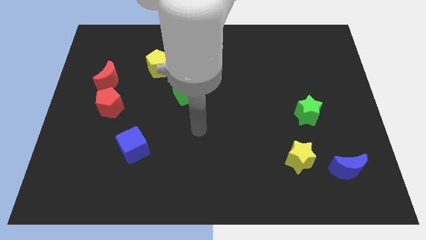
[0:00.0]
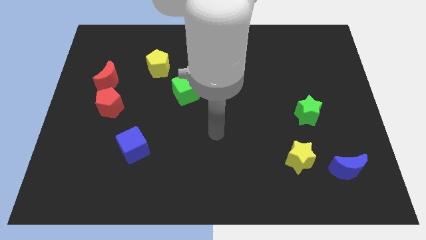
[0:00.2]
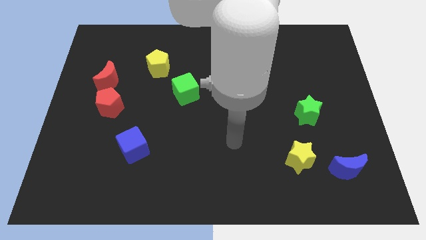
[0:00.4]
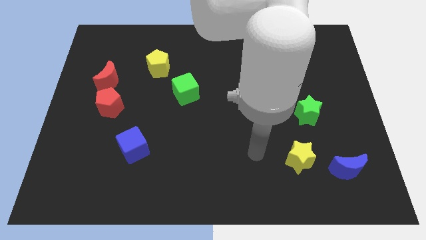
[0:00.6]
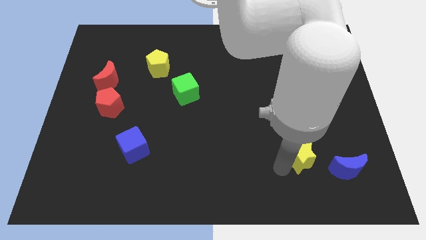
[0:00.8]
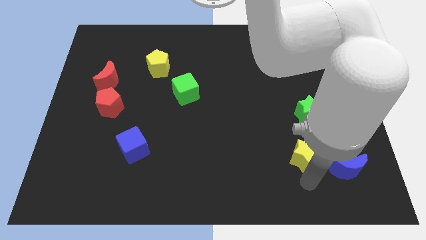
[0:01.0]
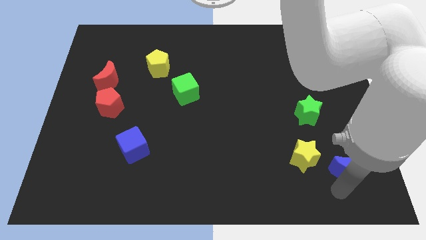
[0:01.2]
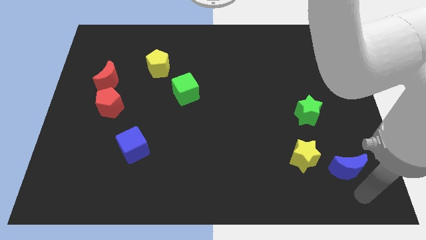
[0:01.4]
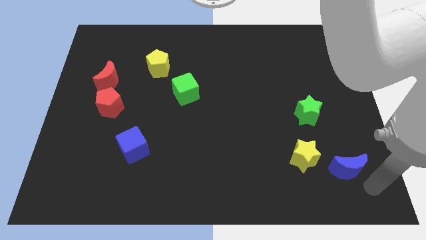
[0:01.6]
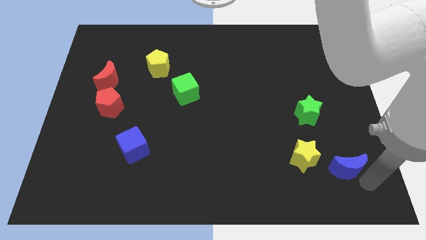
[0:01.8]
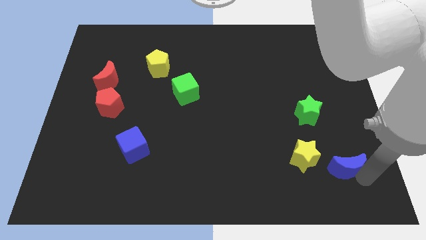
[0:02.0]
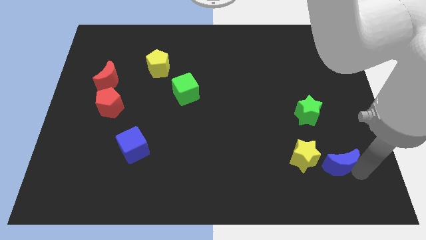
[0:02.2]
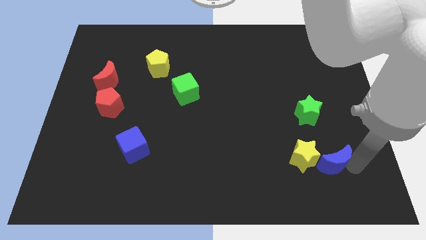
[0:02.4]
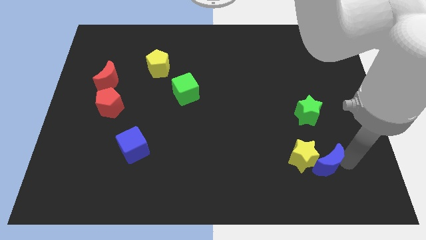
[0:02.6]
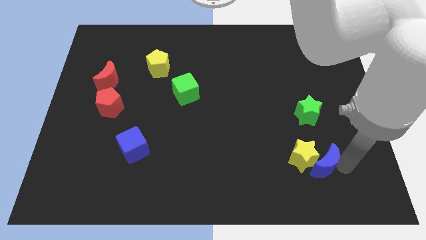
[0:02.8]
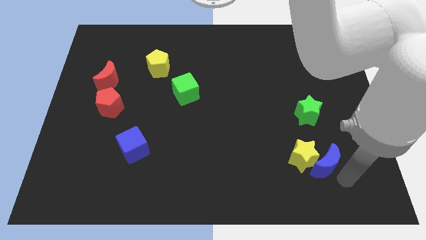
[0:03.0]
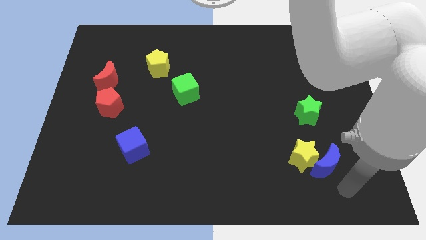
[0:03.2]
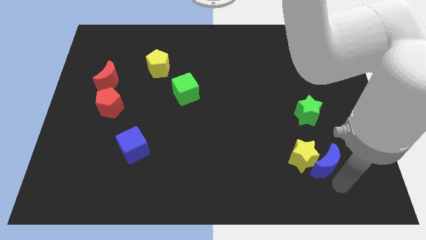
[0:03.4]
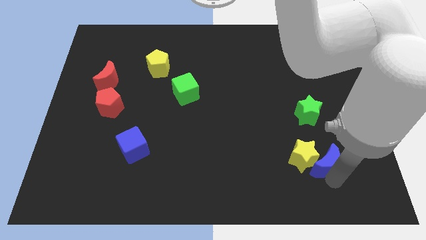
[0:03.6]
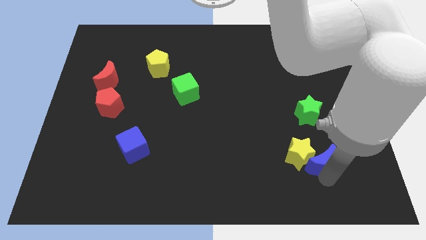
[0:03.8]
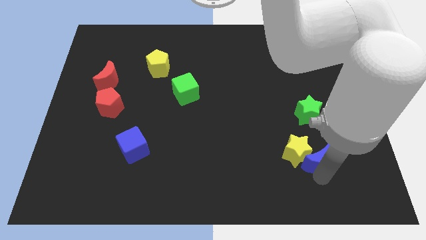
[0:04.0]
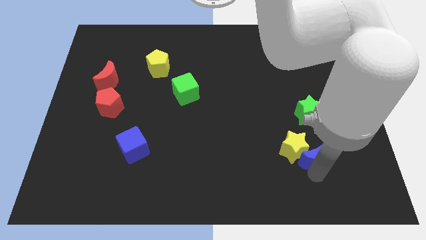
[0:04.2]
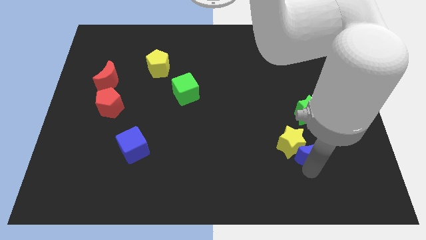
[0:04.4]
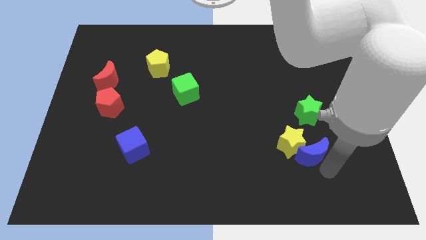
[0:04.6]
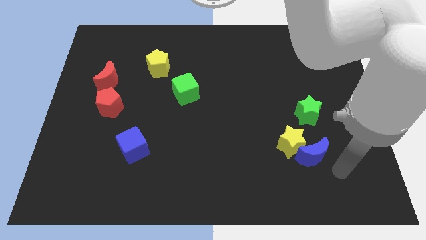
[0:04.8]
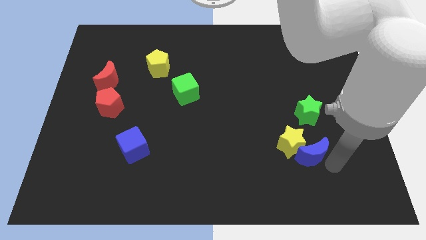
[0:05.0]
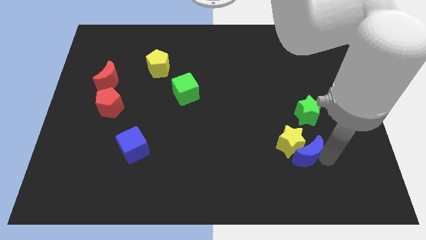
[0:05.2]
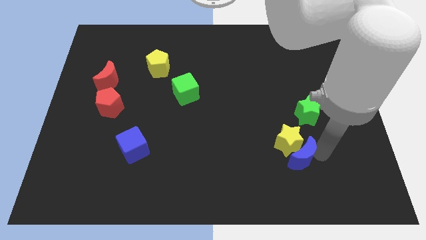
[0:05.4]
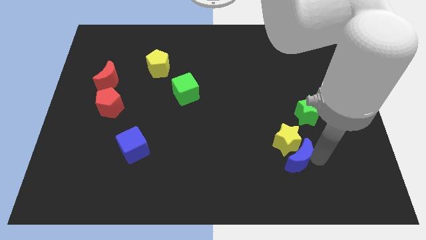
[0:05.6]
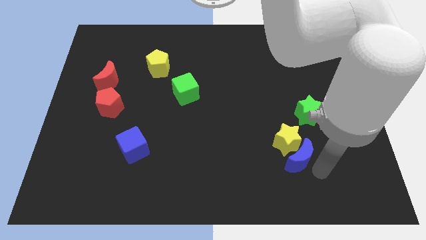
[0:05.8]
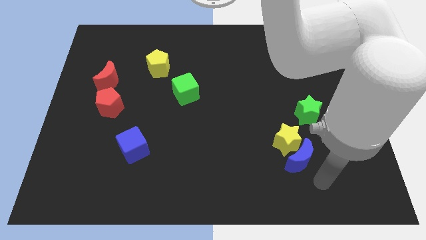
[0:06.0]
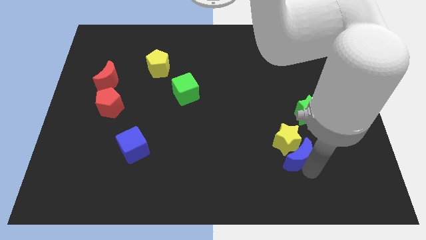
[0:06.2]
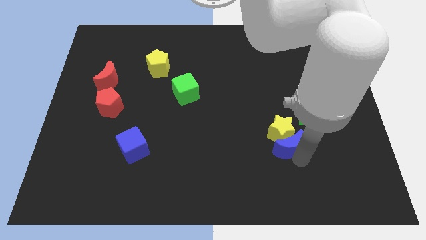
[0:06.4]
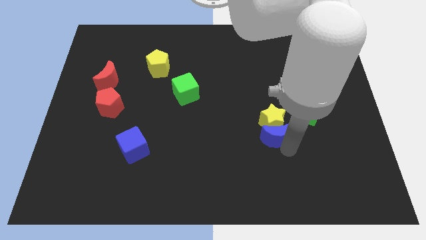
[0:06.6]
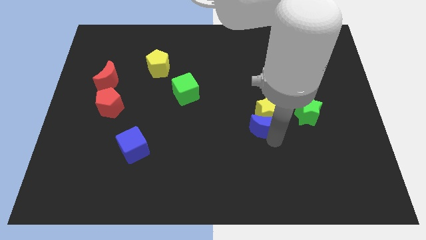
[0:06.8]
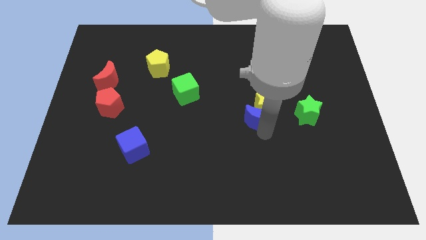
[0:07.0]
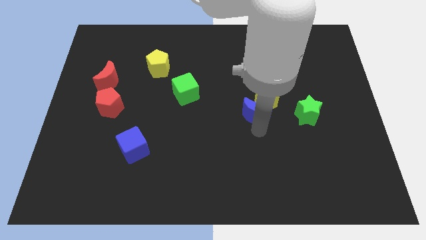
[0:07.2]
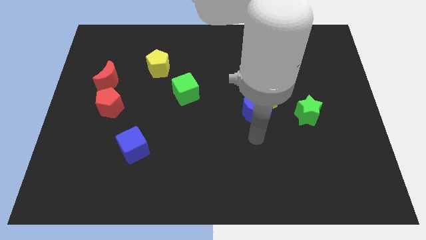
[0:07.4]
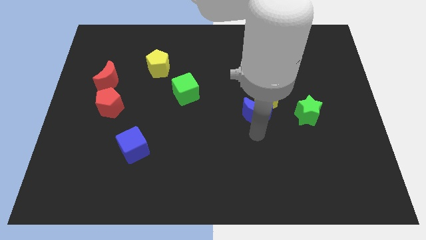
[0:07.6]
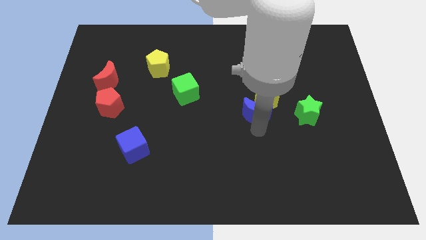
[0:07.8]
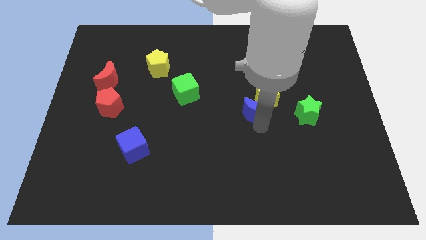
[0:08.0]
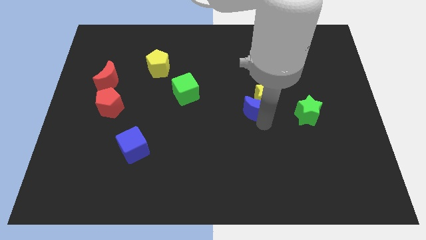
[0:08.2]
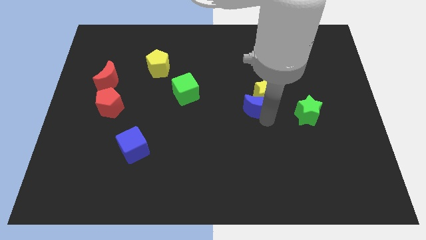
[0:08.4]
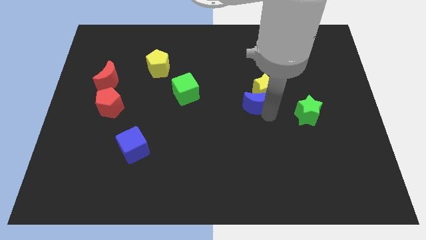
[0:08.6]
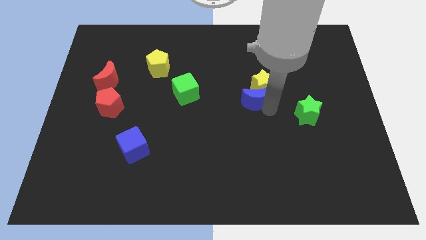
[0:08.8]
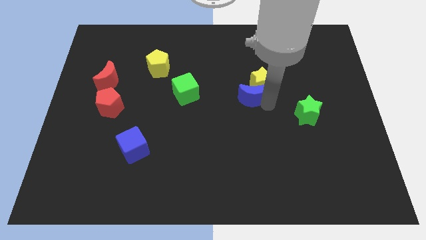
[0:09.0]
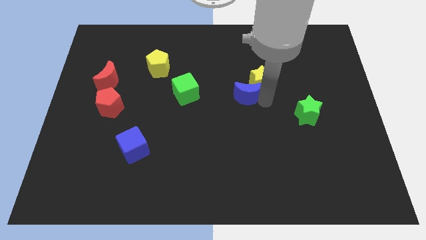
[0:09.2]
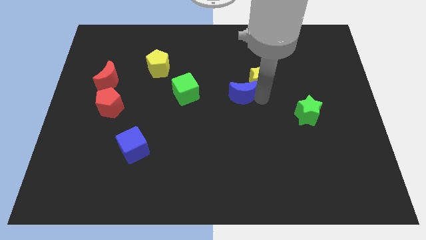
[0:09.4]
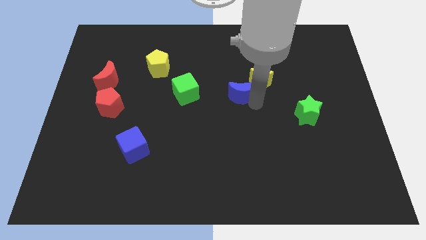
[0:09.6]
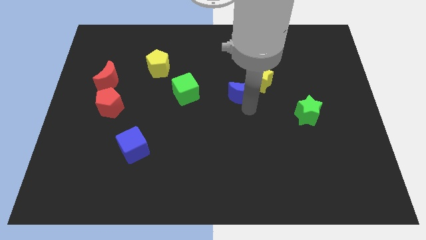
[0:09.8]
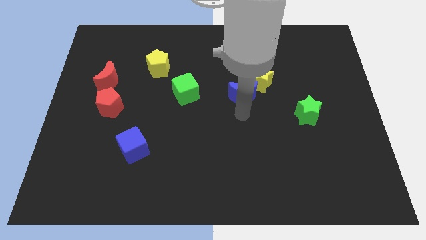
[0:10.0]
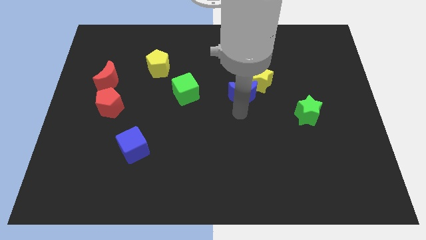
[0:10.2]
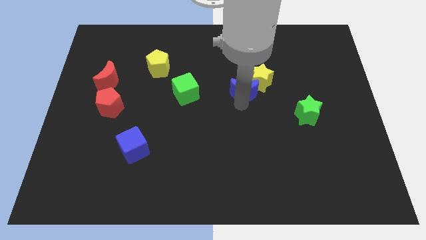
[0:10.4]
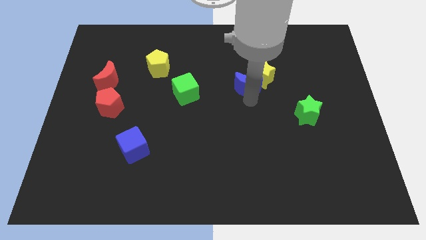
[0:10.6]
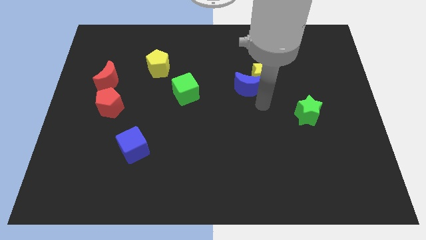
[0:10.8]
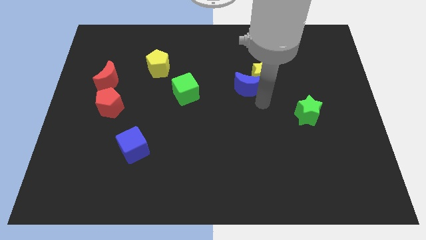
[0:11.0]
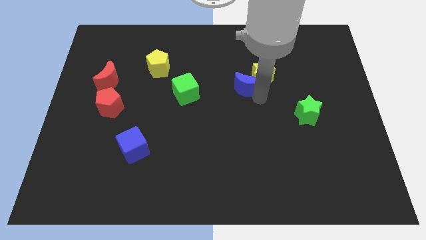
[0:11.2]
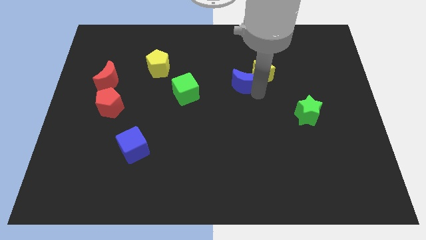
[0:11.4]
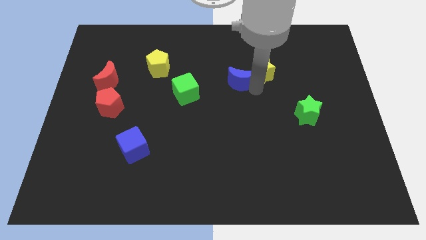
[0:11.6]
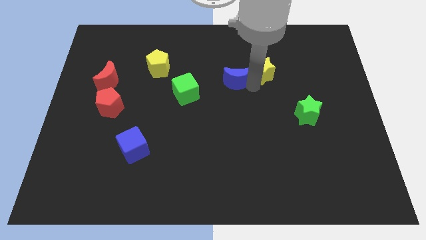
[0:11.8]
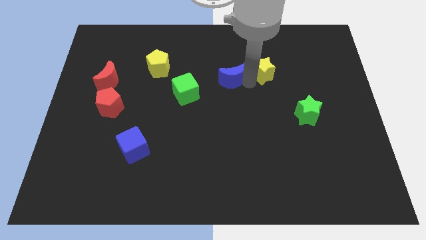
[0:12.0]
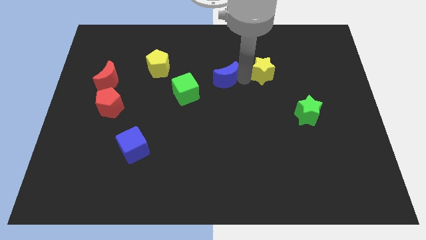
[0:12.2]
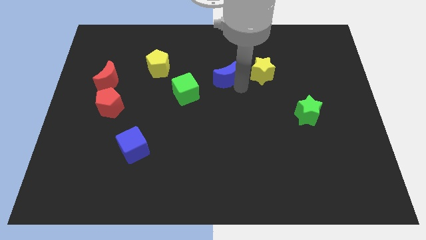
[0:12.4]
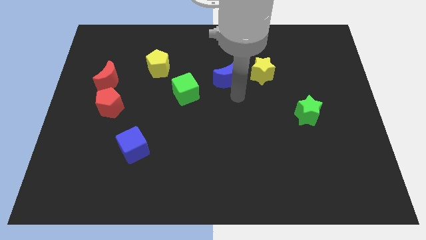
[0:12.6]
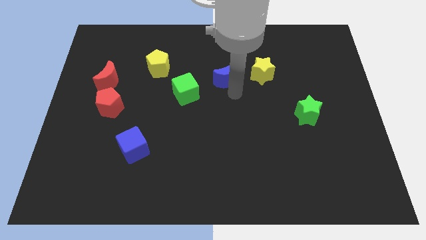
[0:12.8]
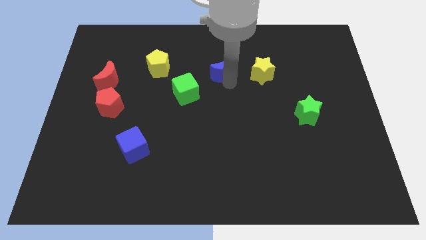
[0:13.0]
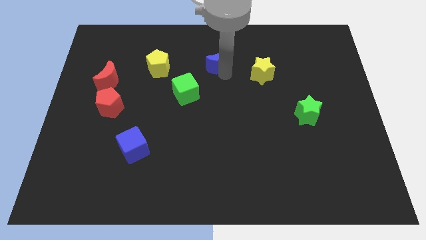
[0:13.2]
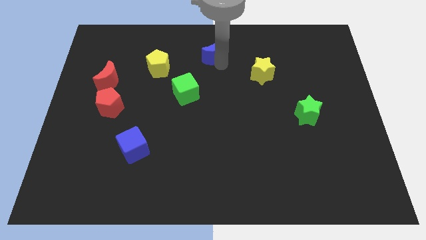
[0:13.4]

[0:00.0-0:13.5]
move the blue moon to the towards your base
